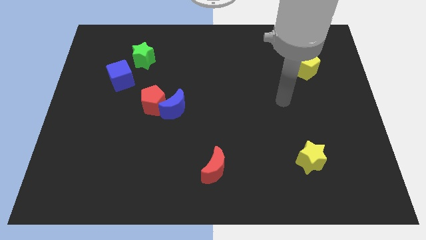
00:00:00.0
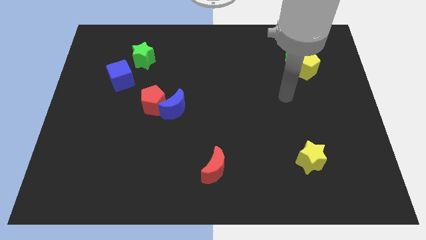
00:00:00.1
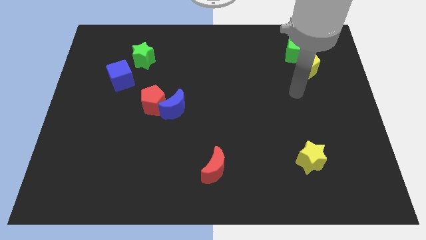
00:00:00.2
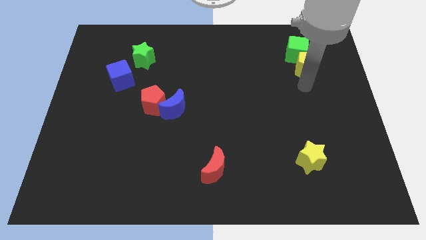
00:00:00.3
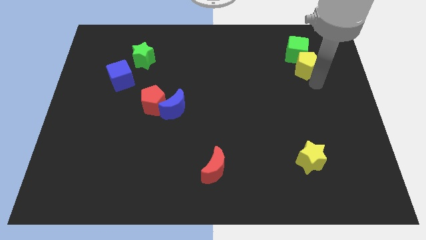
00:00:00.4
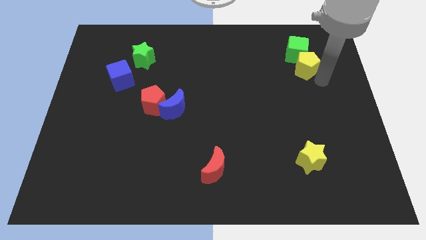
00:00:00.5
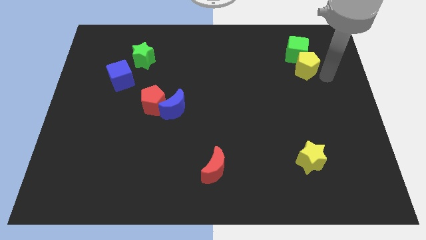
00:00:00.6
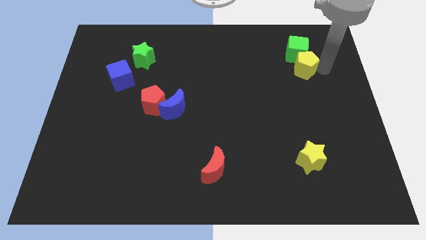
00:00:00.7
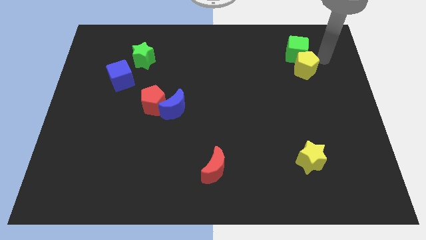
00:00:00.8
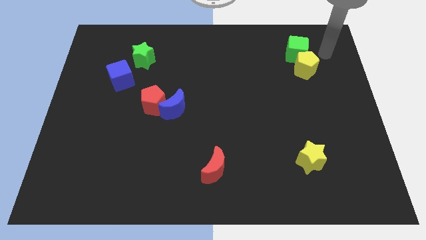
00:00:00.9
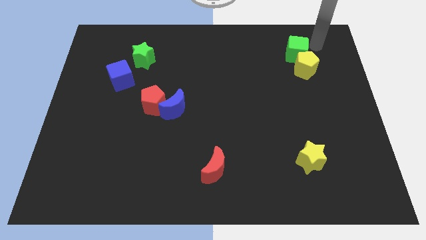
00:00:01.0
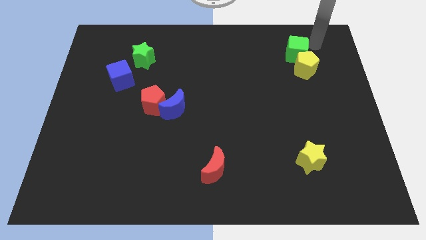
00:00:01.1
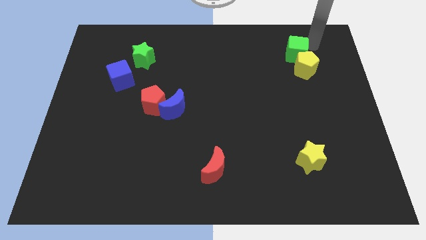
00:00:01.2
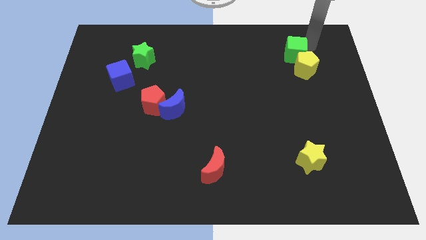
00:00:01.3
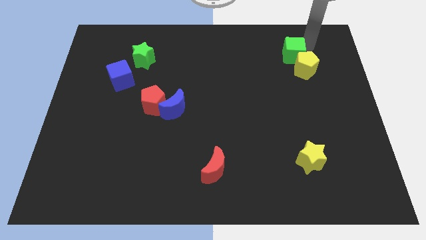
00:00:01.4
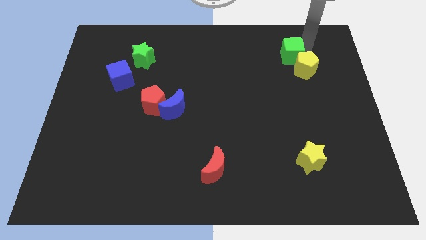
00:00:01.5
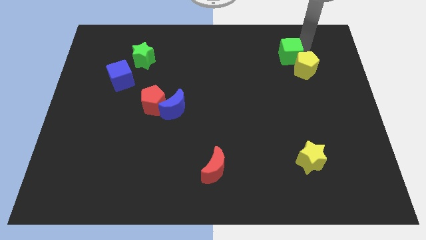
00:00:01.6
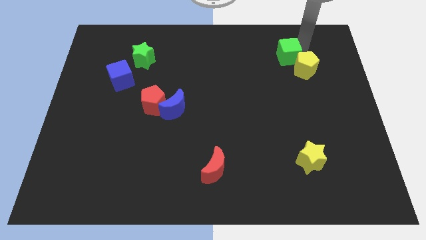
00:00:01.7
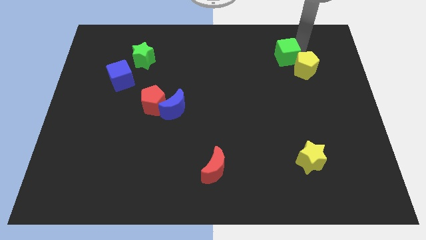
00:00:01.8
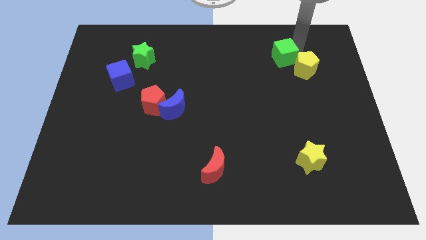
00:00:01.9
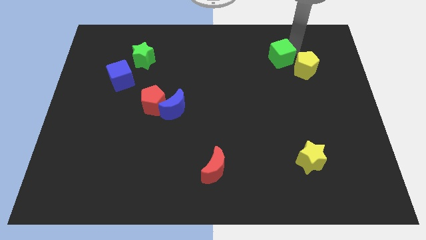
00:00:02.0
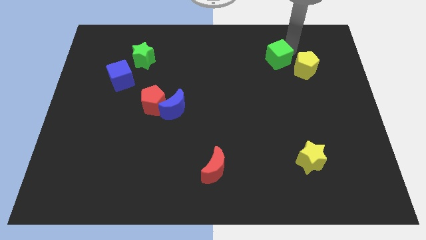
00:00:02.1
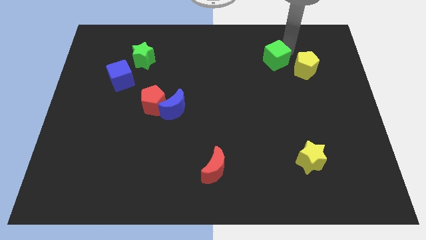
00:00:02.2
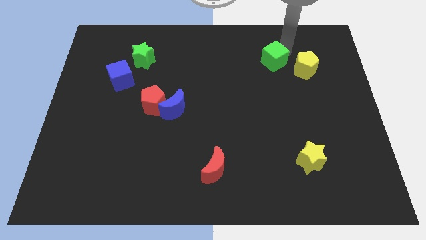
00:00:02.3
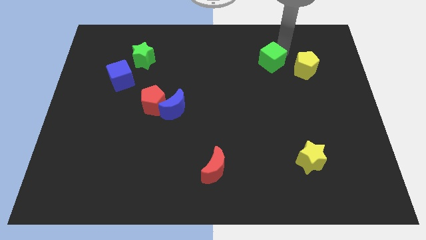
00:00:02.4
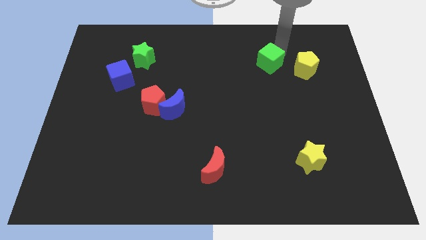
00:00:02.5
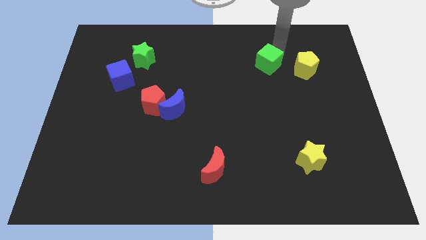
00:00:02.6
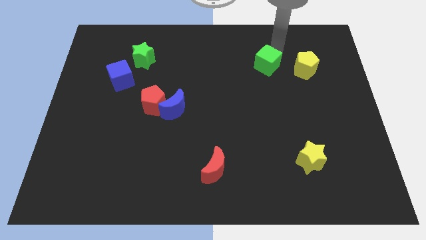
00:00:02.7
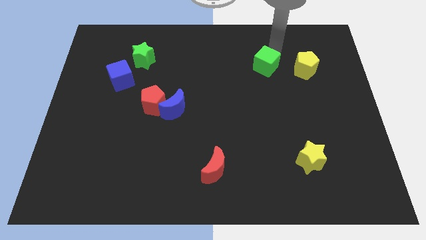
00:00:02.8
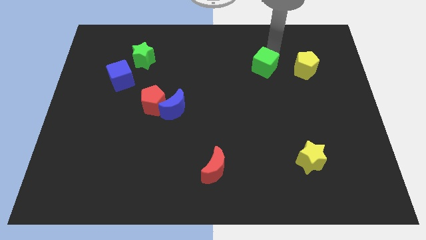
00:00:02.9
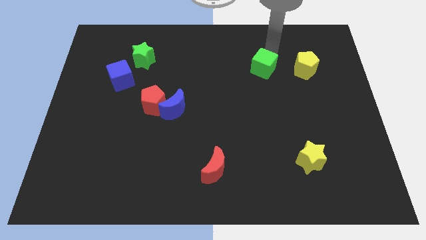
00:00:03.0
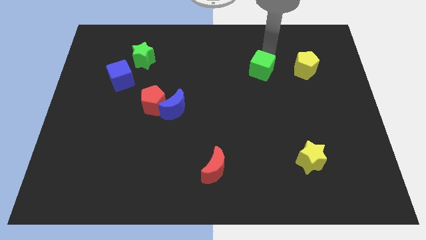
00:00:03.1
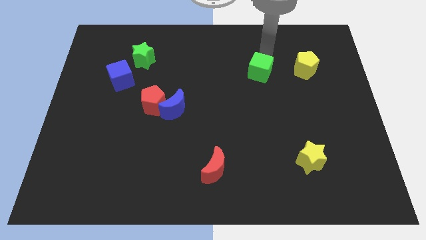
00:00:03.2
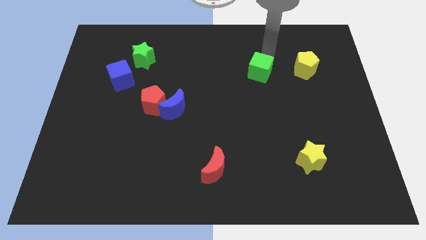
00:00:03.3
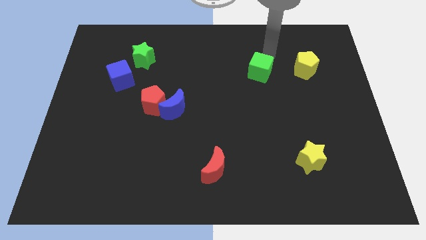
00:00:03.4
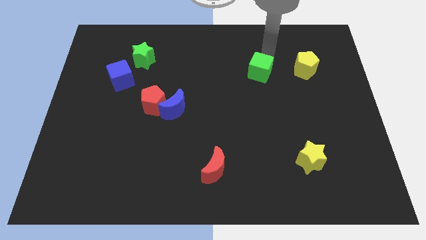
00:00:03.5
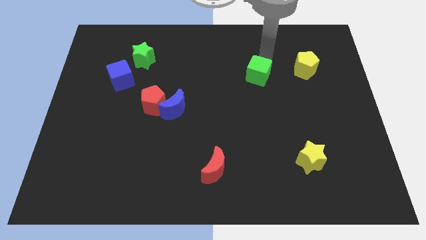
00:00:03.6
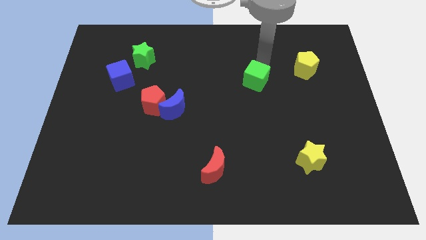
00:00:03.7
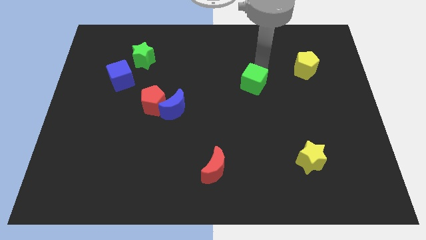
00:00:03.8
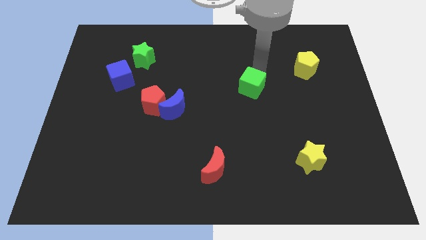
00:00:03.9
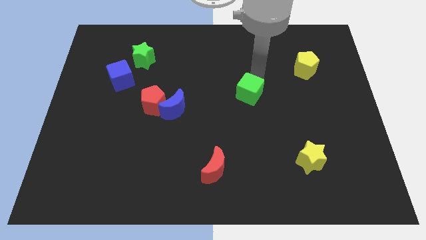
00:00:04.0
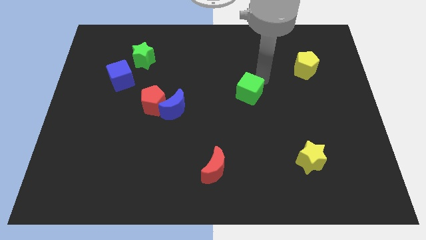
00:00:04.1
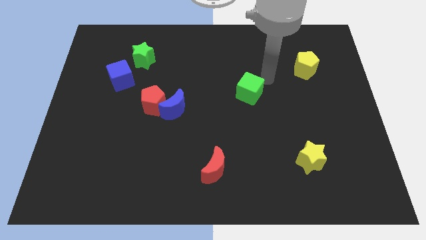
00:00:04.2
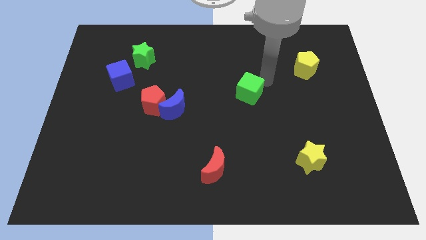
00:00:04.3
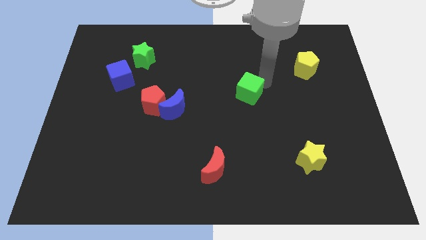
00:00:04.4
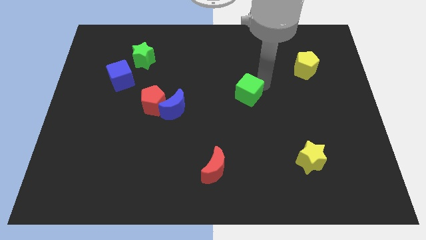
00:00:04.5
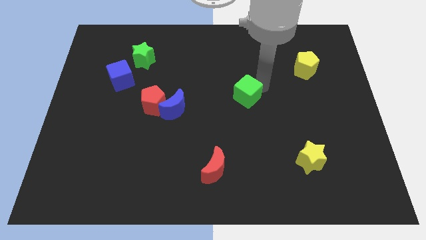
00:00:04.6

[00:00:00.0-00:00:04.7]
push the green cube downwards and left

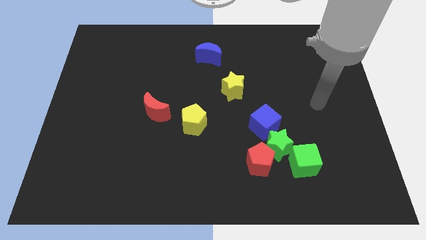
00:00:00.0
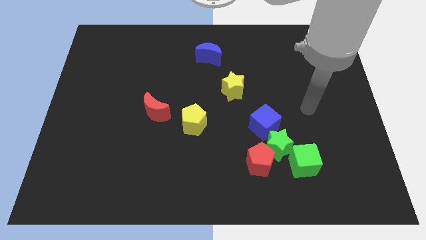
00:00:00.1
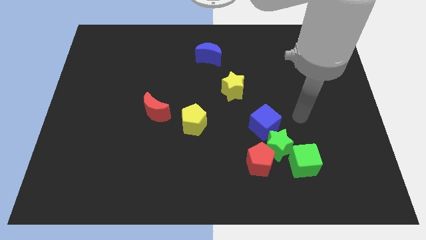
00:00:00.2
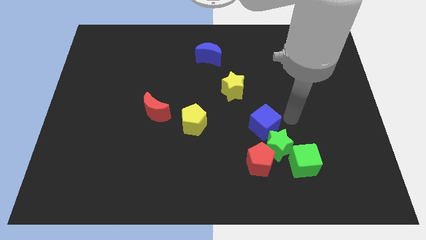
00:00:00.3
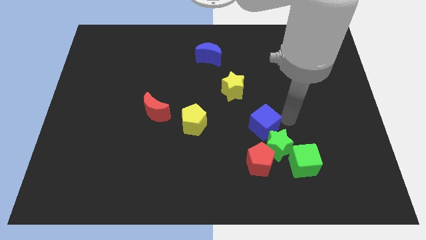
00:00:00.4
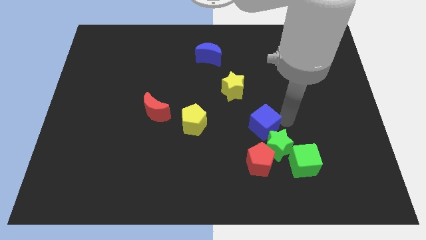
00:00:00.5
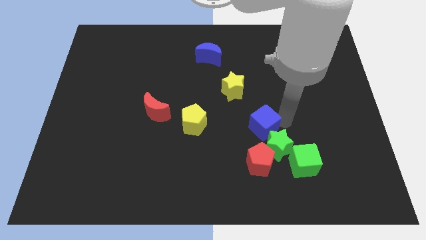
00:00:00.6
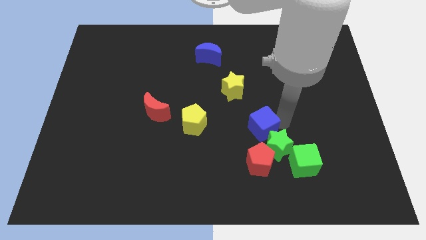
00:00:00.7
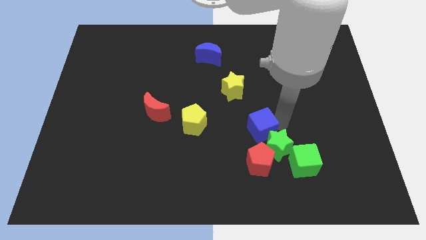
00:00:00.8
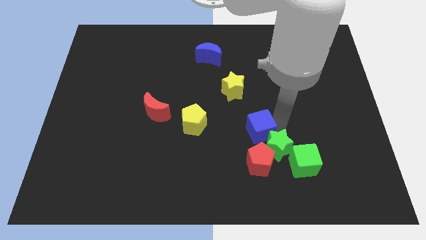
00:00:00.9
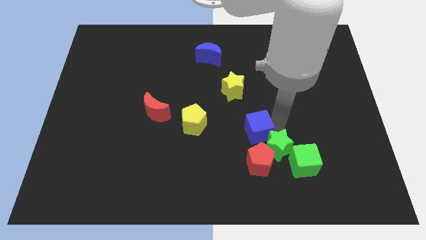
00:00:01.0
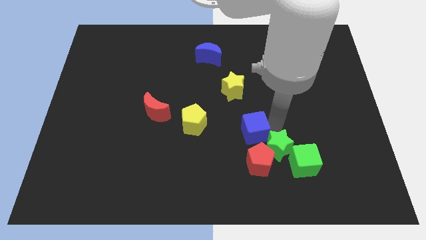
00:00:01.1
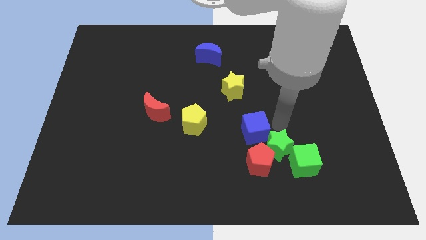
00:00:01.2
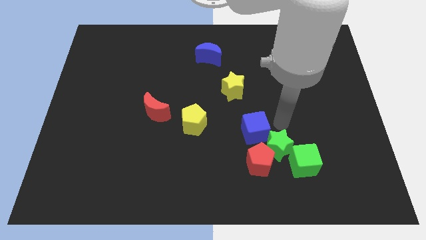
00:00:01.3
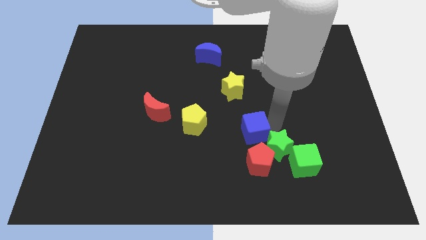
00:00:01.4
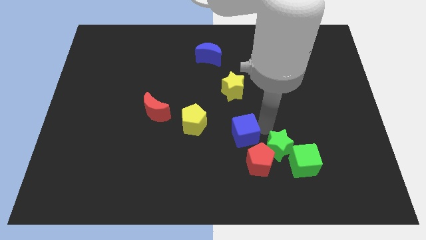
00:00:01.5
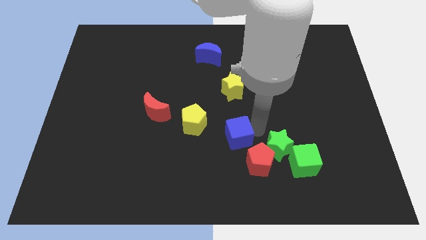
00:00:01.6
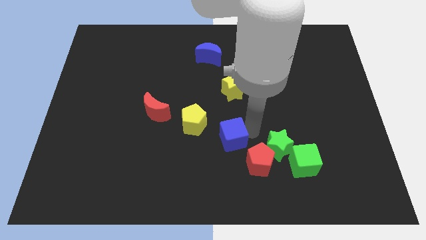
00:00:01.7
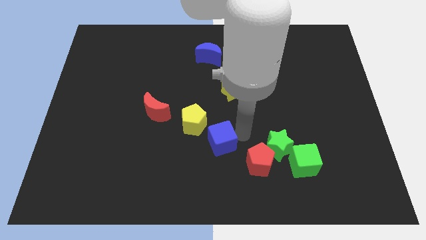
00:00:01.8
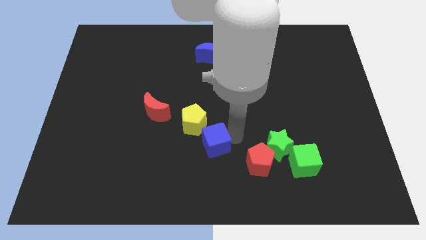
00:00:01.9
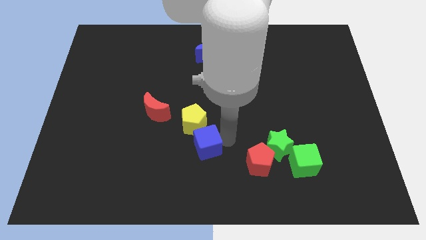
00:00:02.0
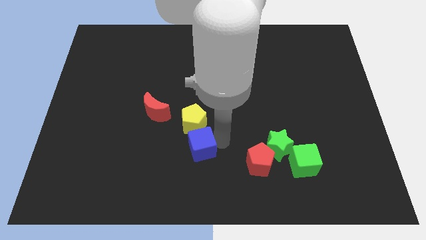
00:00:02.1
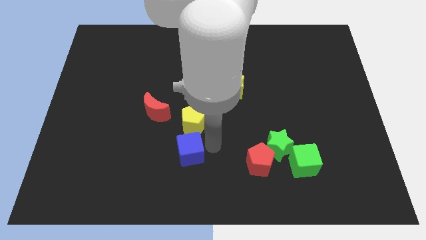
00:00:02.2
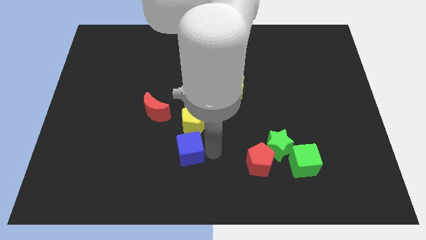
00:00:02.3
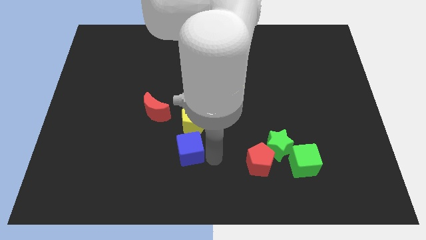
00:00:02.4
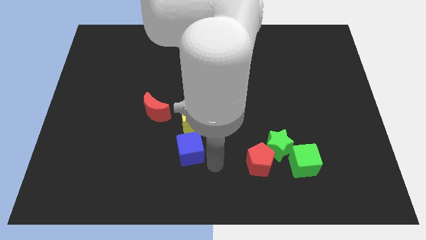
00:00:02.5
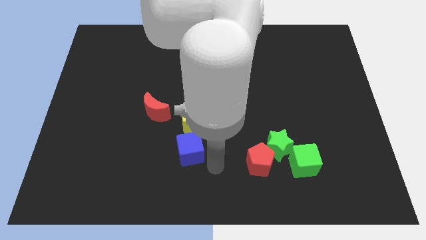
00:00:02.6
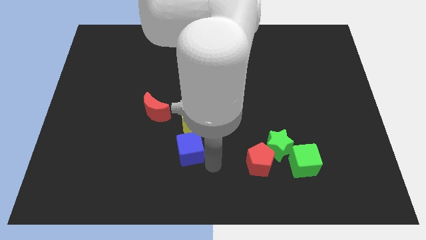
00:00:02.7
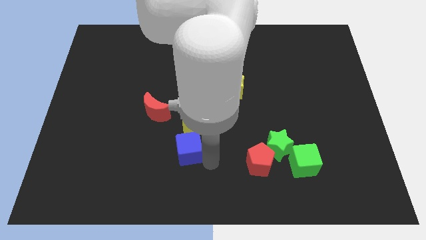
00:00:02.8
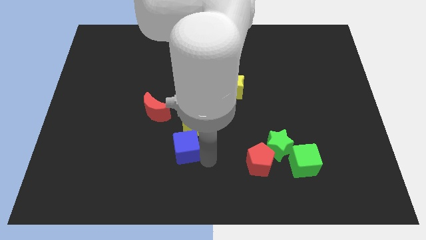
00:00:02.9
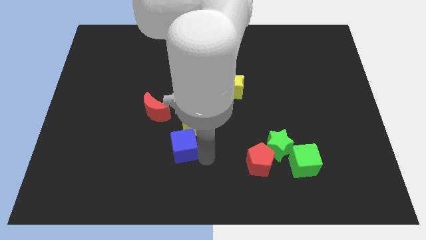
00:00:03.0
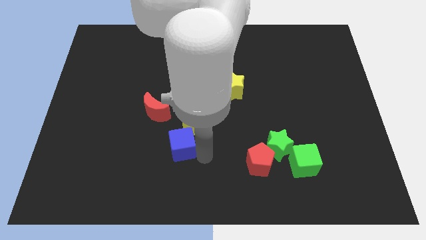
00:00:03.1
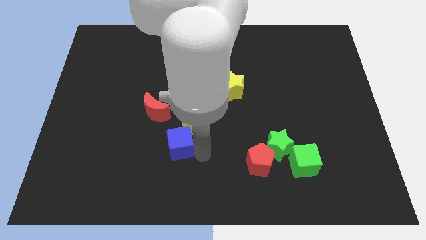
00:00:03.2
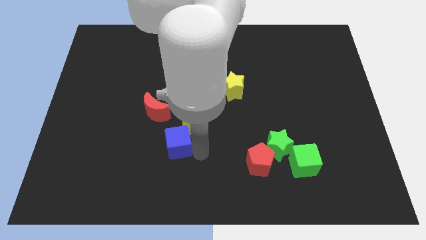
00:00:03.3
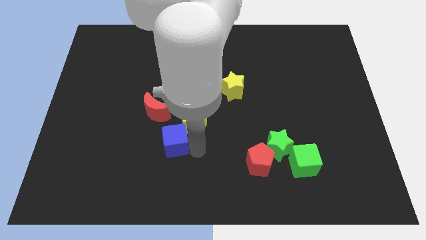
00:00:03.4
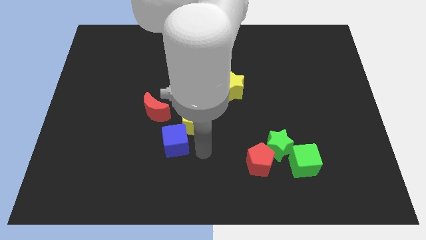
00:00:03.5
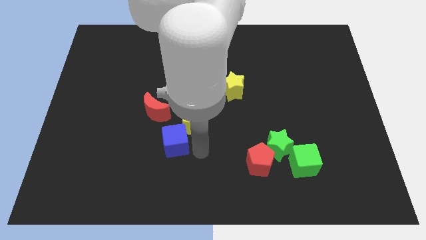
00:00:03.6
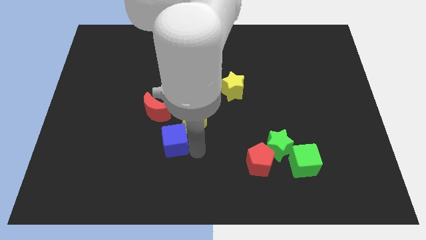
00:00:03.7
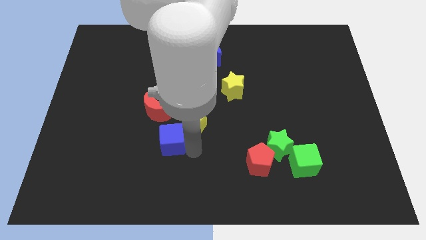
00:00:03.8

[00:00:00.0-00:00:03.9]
slide the blue cube left
